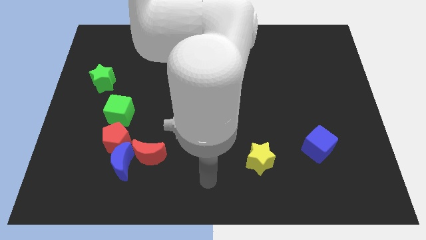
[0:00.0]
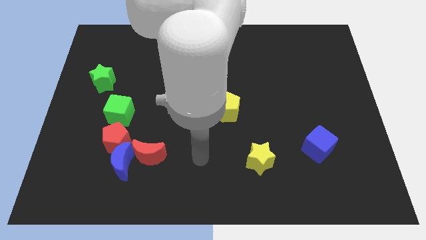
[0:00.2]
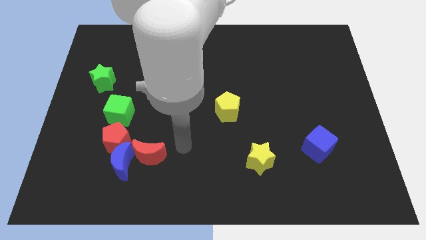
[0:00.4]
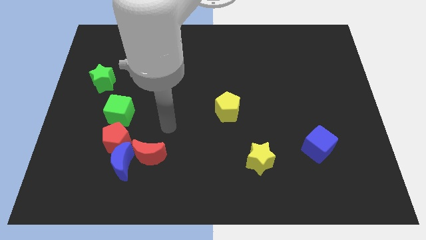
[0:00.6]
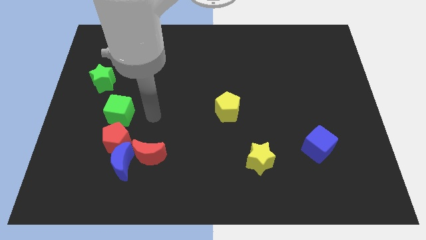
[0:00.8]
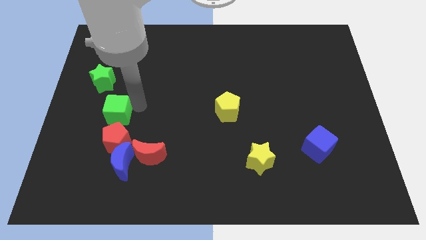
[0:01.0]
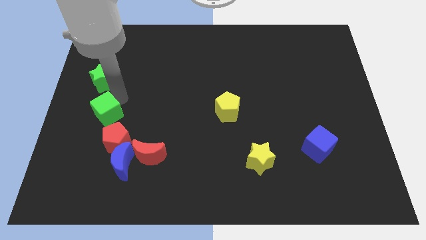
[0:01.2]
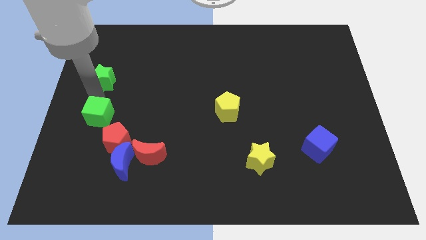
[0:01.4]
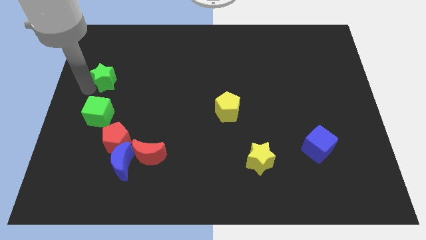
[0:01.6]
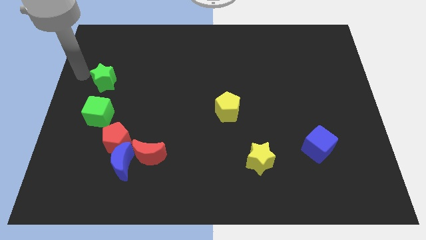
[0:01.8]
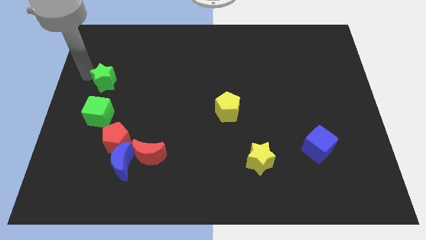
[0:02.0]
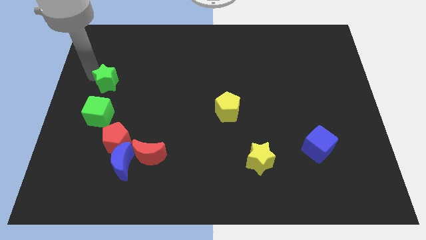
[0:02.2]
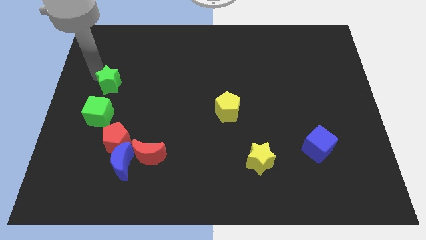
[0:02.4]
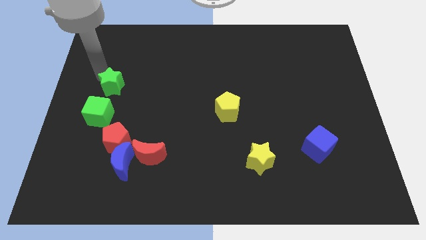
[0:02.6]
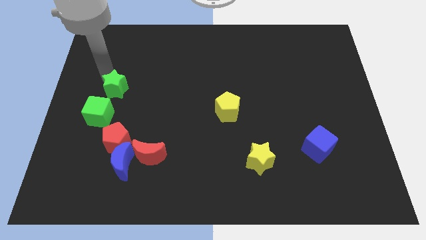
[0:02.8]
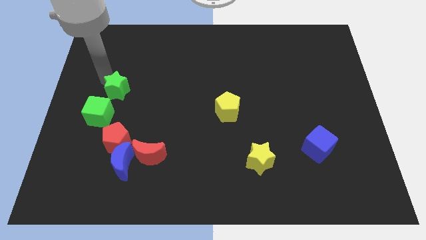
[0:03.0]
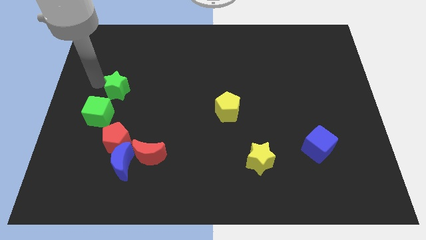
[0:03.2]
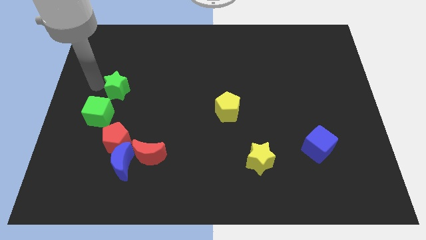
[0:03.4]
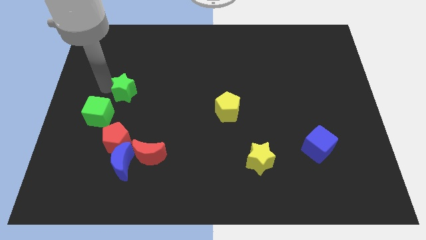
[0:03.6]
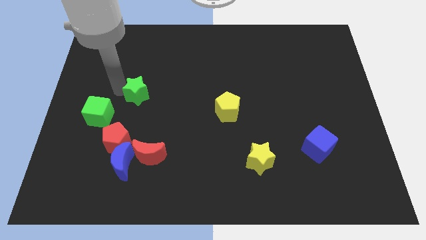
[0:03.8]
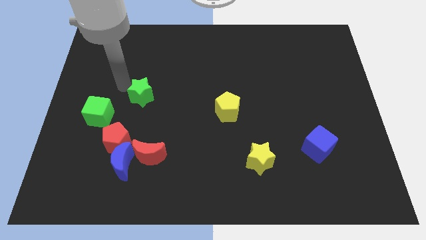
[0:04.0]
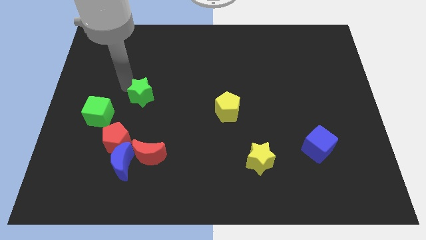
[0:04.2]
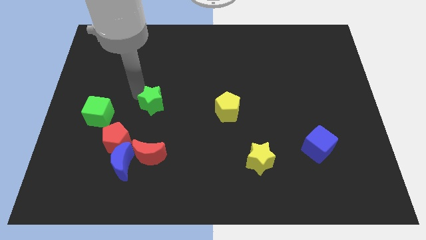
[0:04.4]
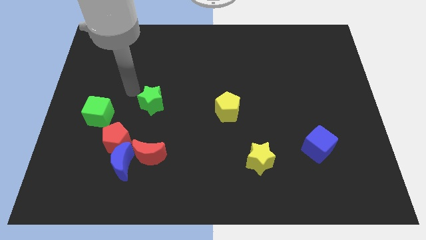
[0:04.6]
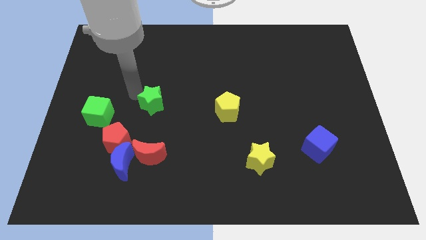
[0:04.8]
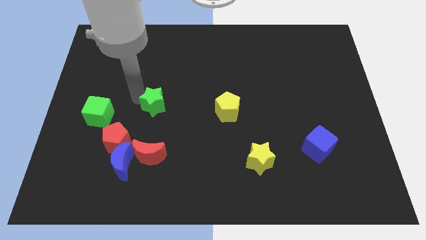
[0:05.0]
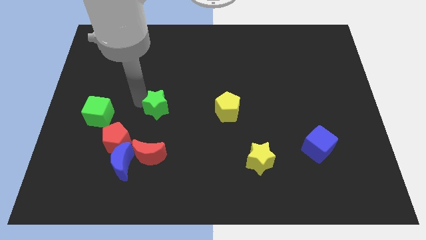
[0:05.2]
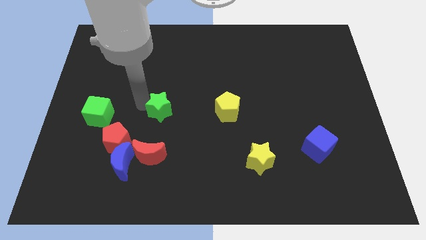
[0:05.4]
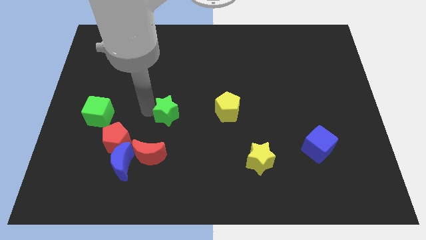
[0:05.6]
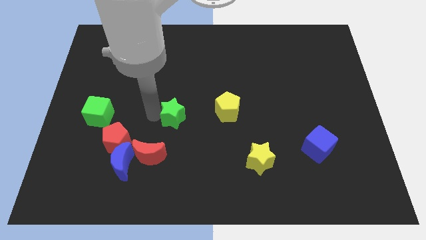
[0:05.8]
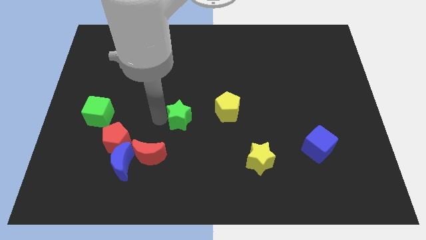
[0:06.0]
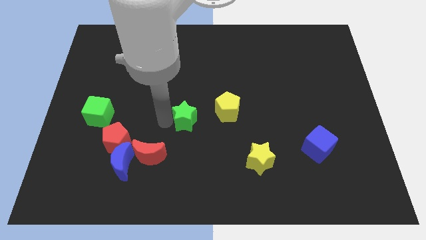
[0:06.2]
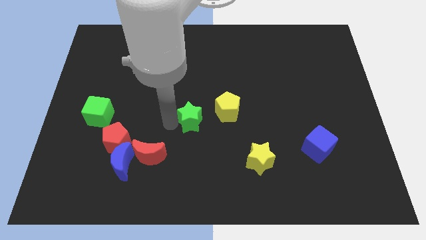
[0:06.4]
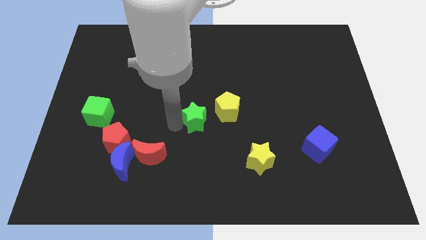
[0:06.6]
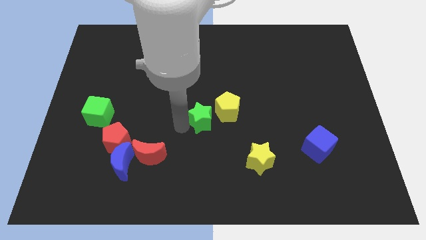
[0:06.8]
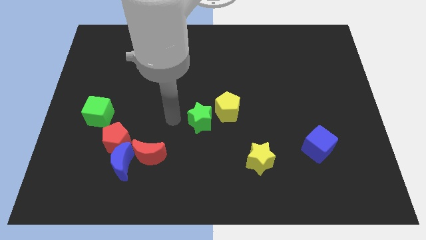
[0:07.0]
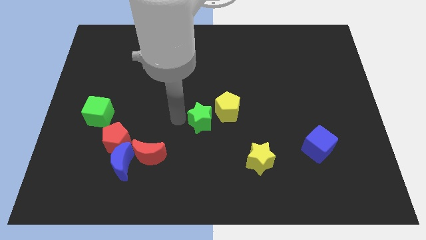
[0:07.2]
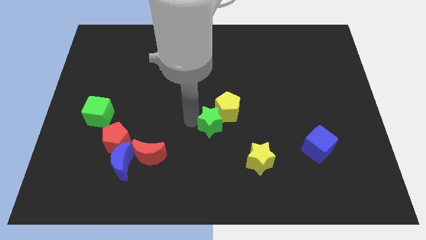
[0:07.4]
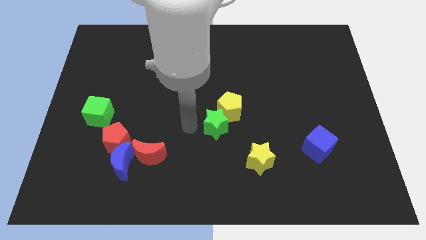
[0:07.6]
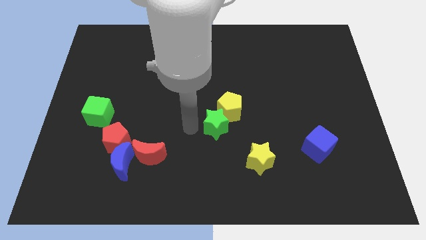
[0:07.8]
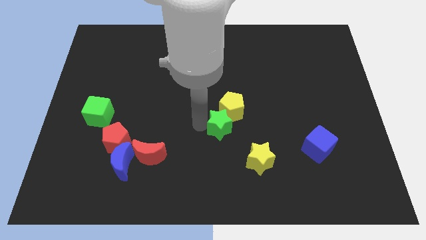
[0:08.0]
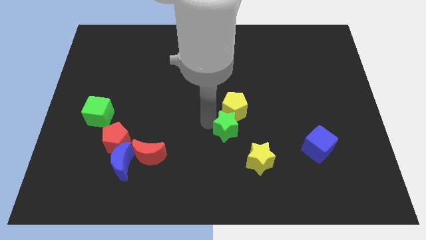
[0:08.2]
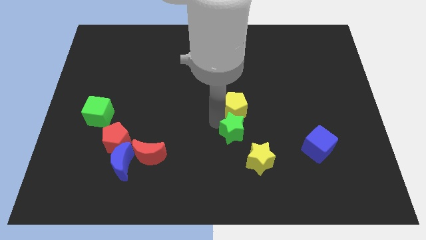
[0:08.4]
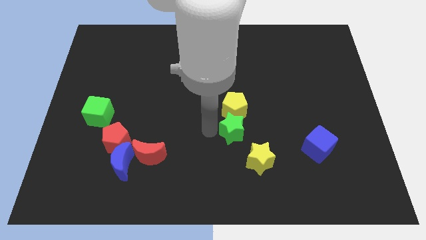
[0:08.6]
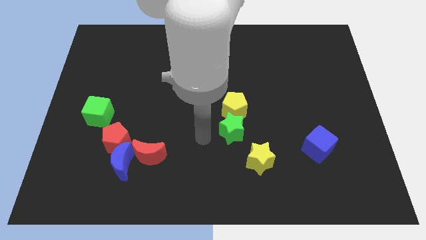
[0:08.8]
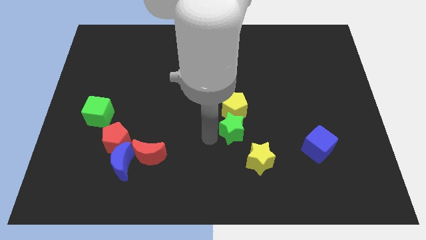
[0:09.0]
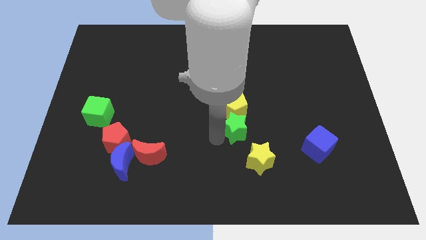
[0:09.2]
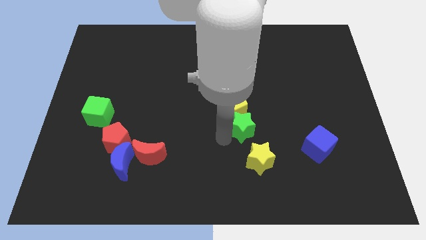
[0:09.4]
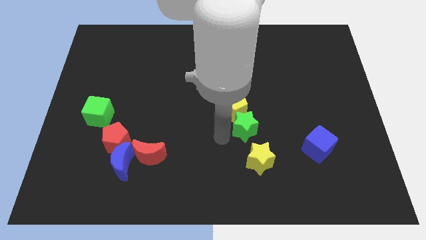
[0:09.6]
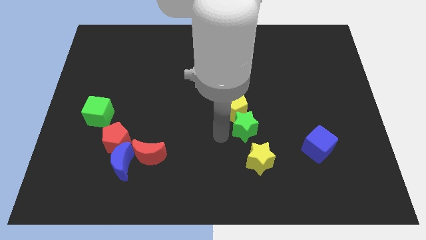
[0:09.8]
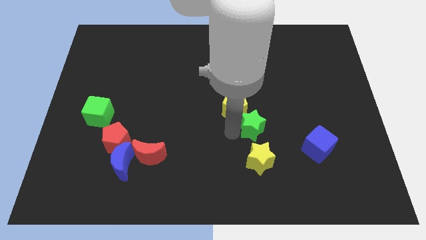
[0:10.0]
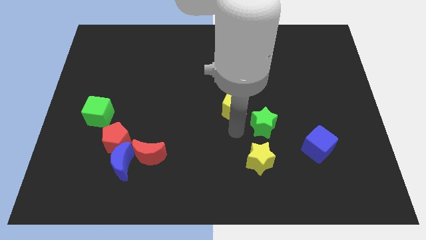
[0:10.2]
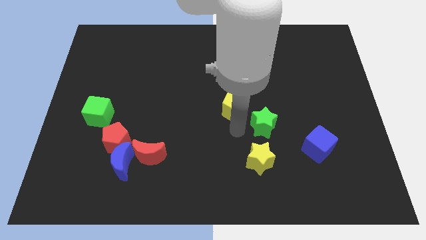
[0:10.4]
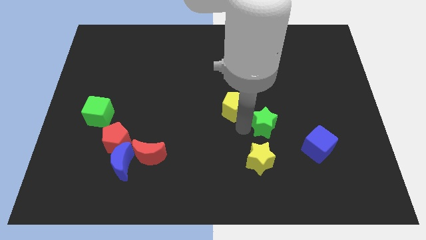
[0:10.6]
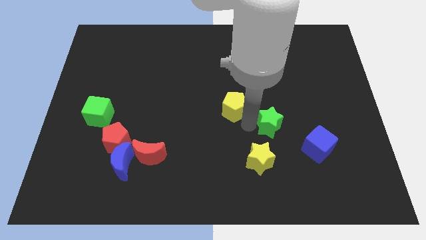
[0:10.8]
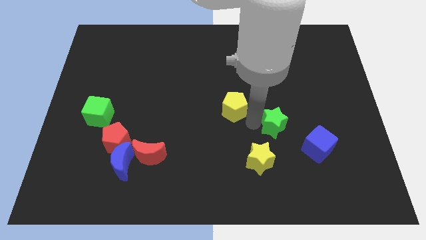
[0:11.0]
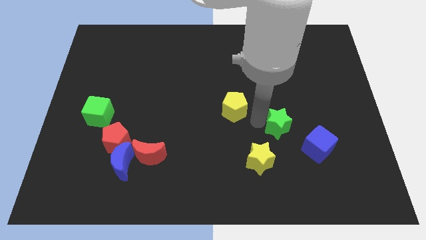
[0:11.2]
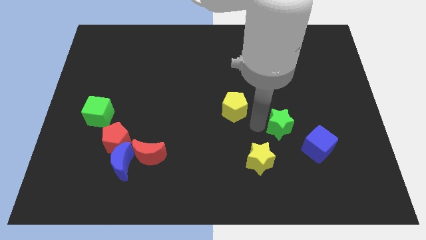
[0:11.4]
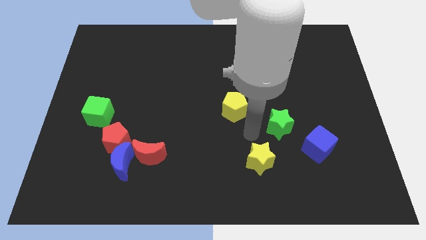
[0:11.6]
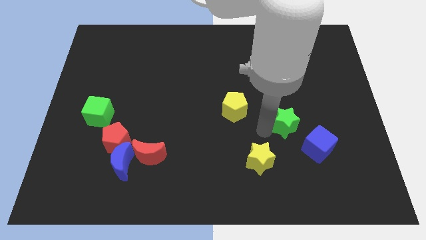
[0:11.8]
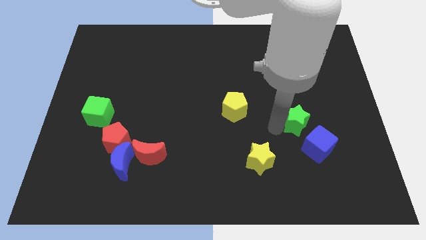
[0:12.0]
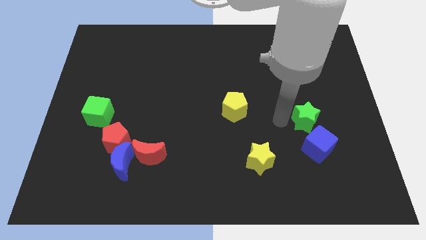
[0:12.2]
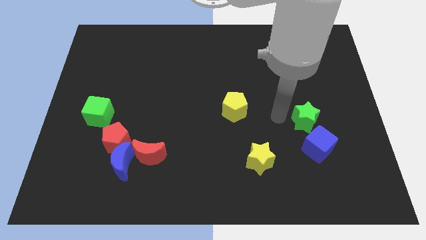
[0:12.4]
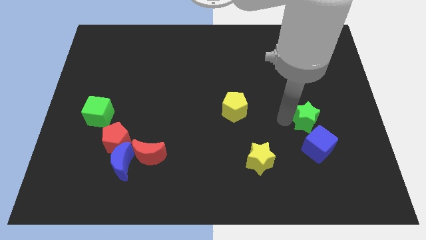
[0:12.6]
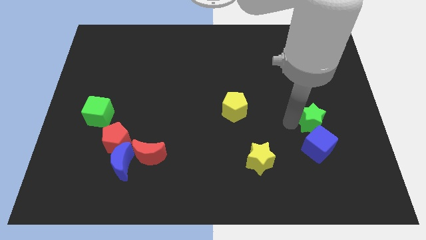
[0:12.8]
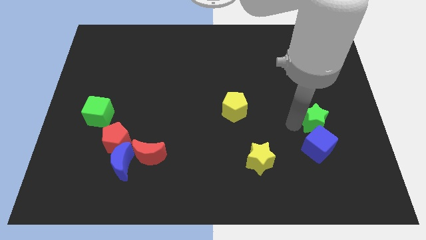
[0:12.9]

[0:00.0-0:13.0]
put the green star to the top right side of the blue cube

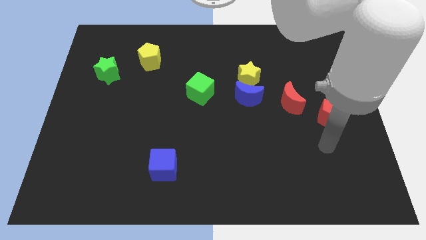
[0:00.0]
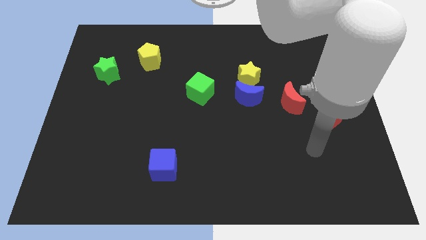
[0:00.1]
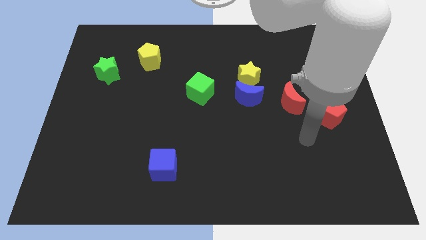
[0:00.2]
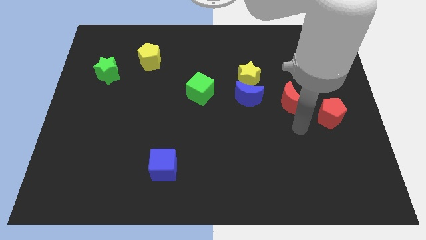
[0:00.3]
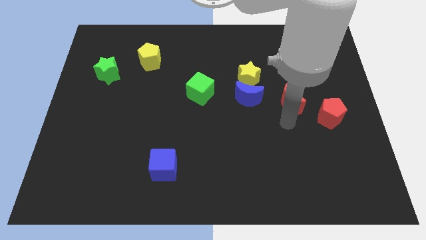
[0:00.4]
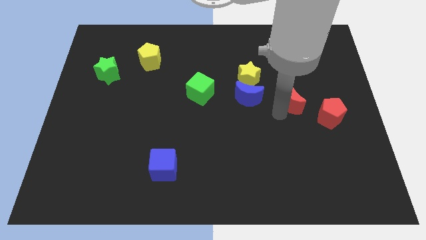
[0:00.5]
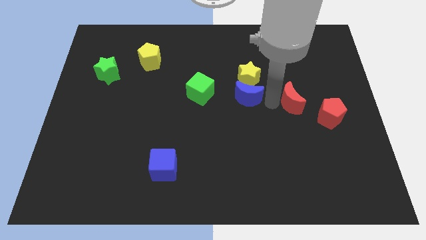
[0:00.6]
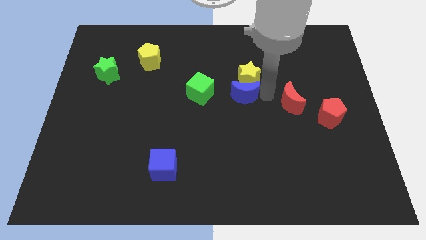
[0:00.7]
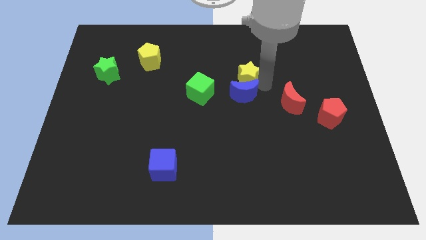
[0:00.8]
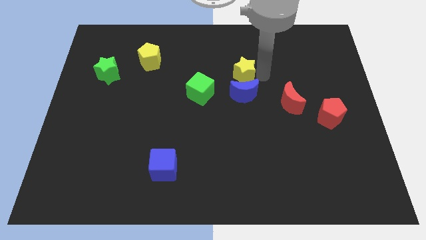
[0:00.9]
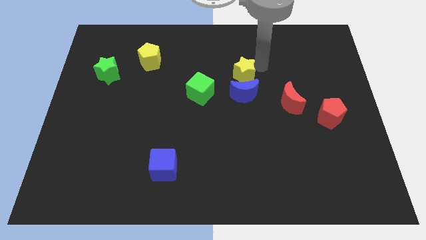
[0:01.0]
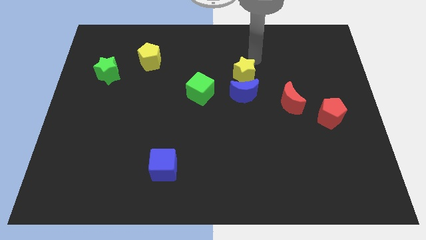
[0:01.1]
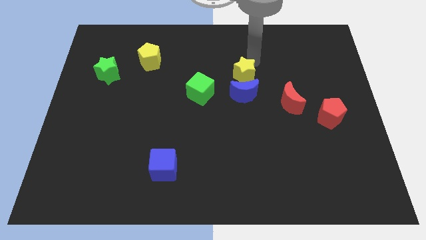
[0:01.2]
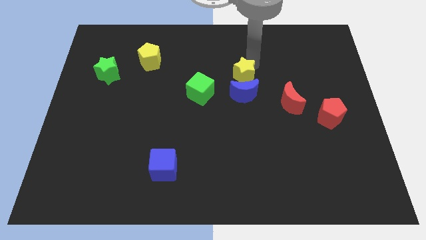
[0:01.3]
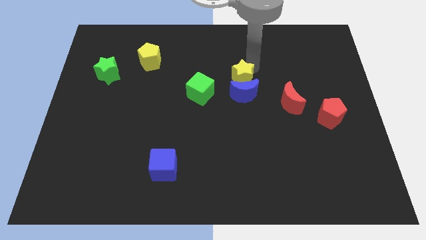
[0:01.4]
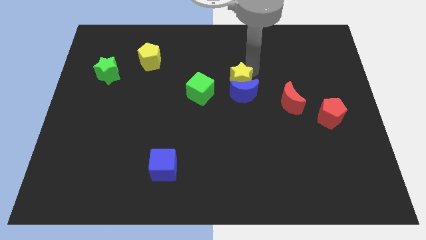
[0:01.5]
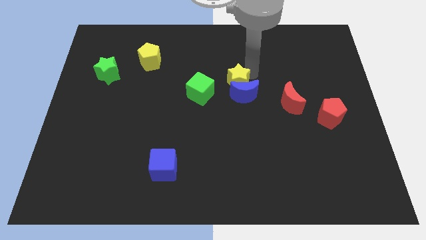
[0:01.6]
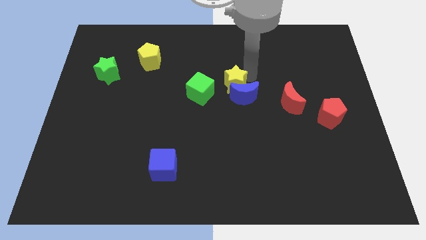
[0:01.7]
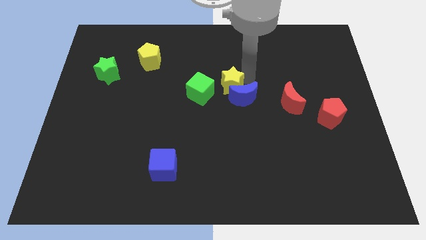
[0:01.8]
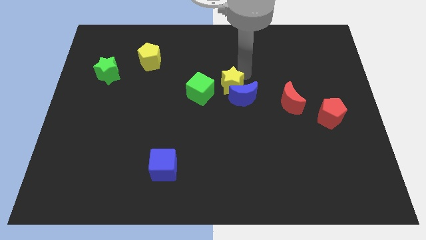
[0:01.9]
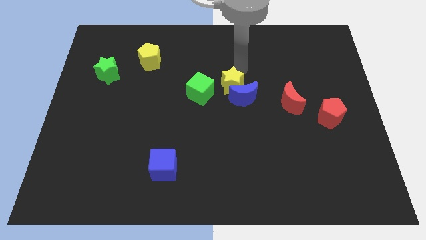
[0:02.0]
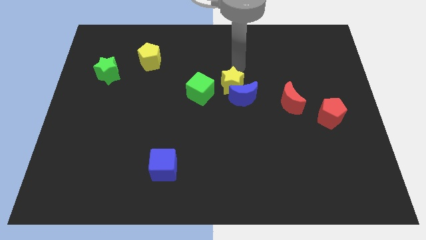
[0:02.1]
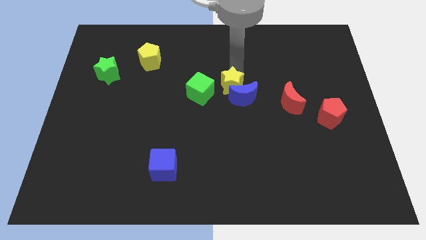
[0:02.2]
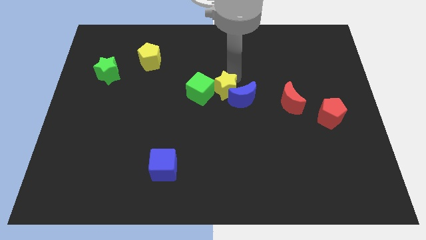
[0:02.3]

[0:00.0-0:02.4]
move the yellow star diagonally down and to the right of the green cube
